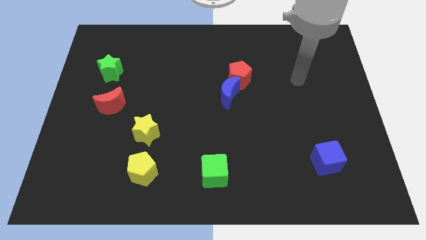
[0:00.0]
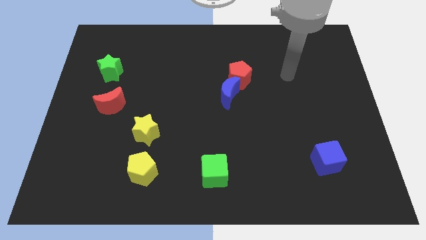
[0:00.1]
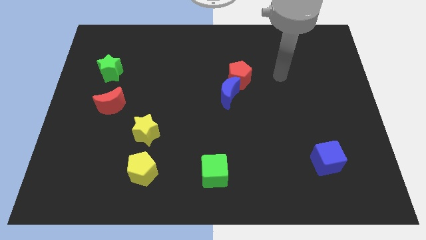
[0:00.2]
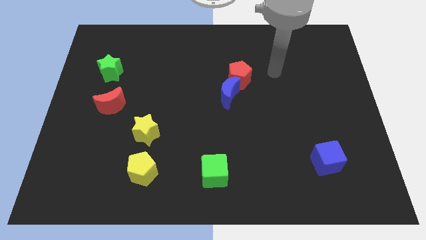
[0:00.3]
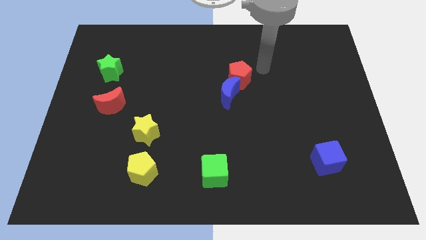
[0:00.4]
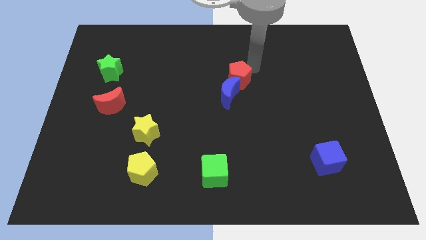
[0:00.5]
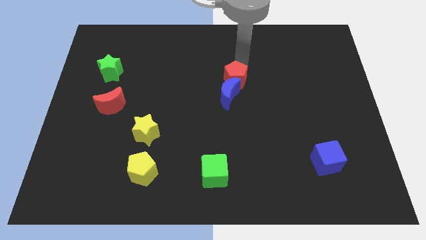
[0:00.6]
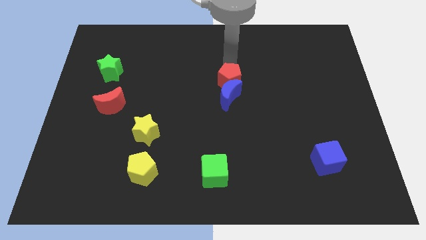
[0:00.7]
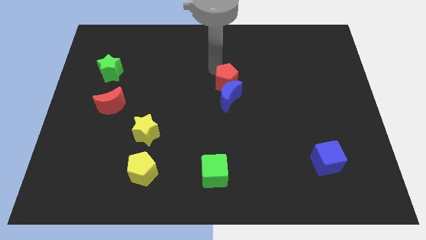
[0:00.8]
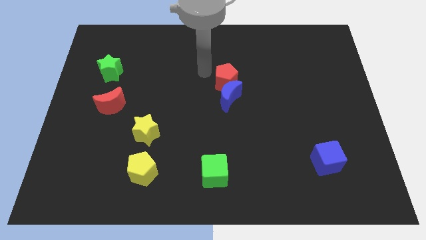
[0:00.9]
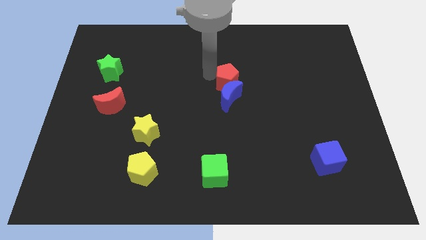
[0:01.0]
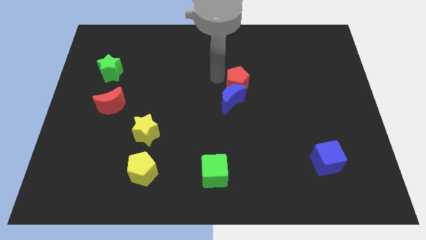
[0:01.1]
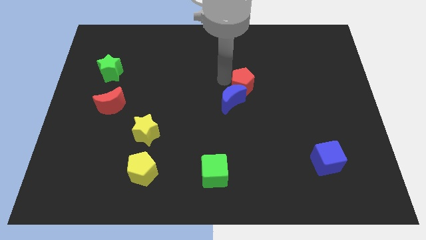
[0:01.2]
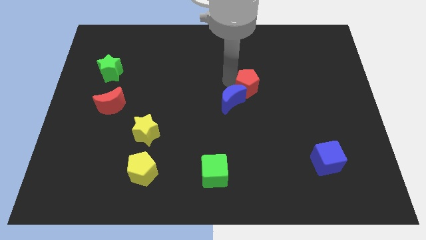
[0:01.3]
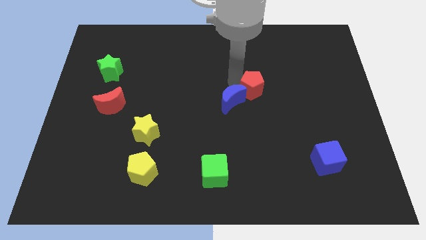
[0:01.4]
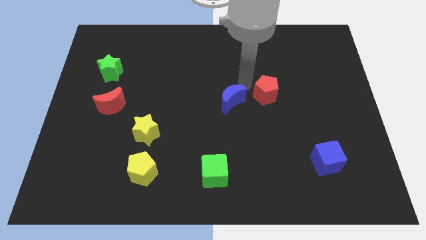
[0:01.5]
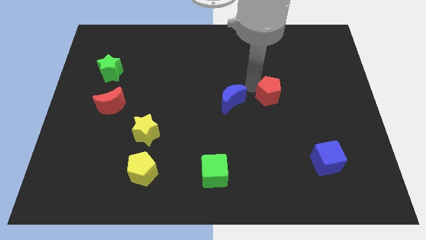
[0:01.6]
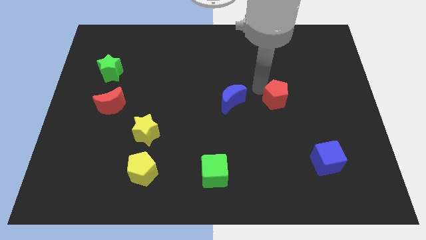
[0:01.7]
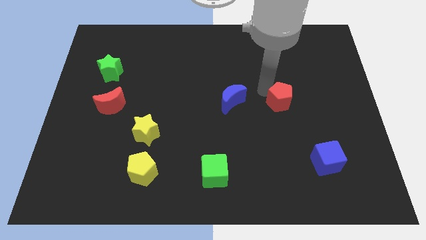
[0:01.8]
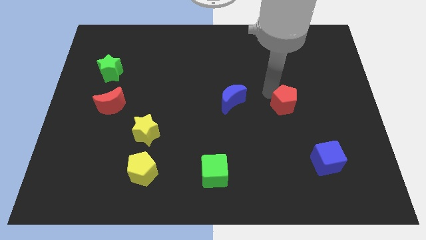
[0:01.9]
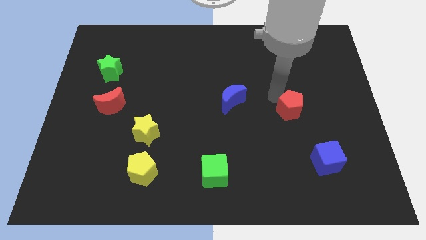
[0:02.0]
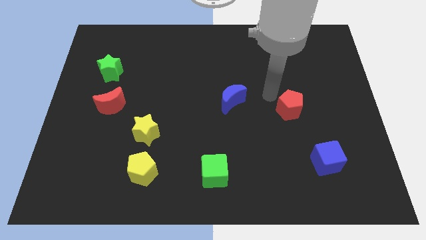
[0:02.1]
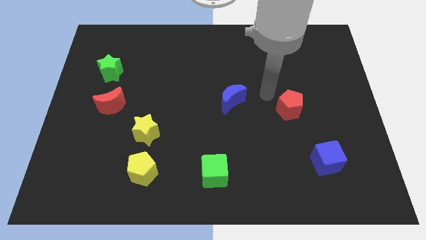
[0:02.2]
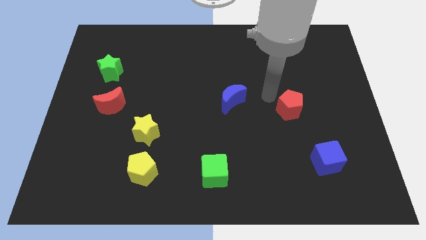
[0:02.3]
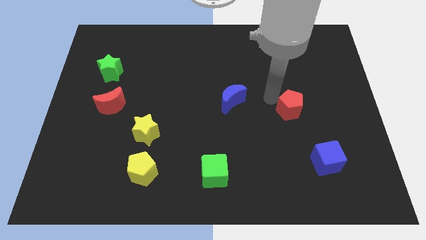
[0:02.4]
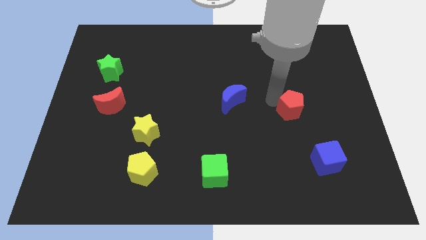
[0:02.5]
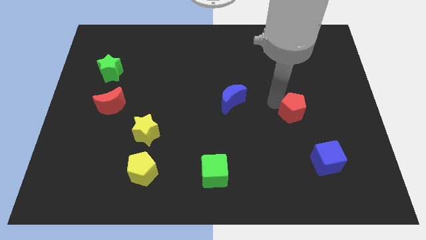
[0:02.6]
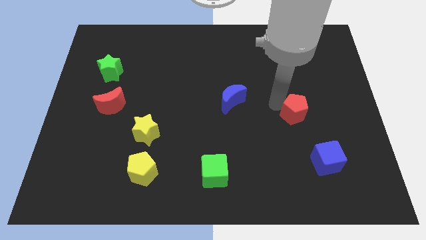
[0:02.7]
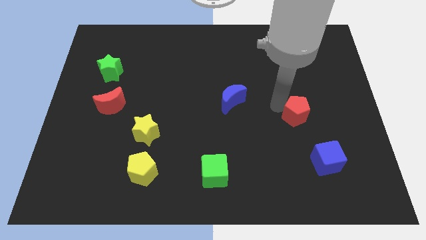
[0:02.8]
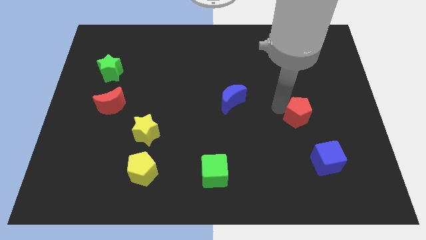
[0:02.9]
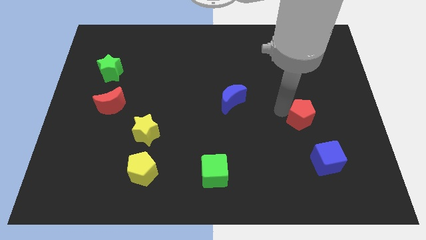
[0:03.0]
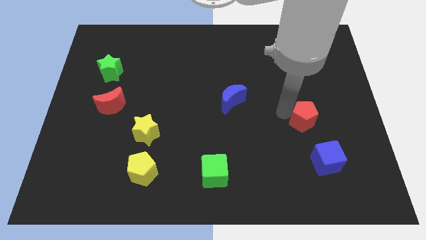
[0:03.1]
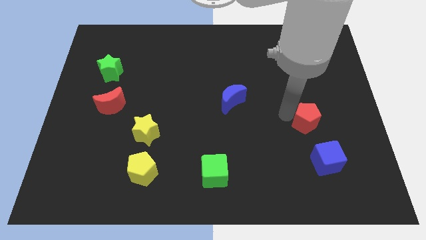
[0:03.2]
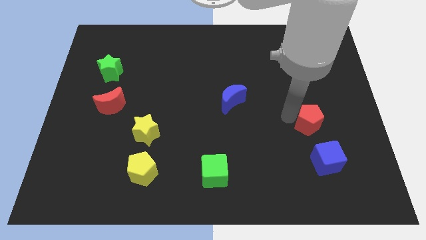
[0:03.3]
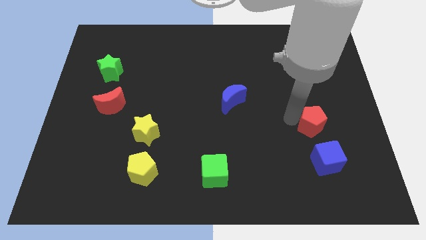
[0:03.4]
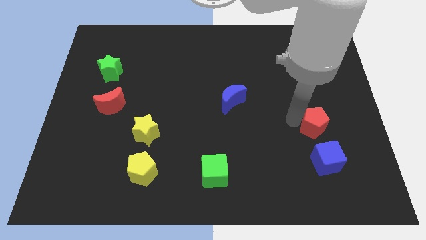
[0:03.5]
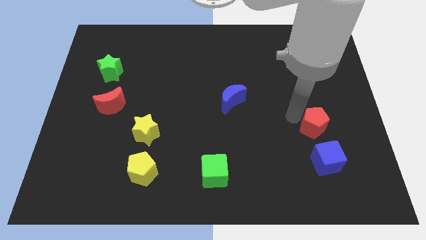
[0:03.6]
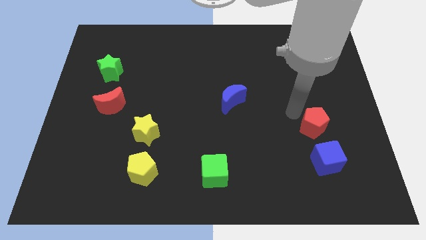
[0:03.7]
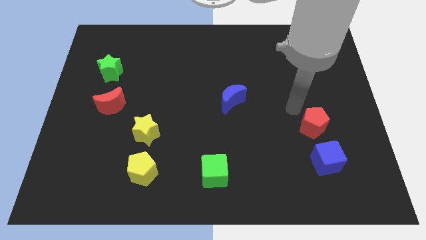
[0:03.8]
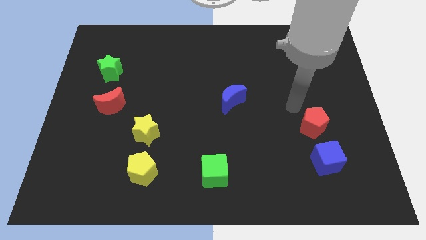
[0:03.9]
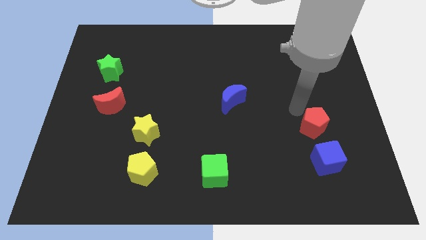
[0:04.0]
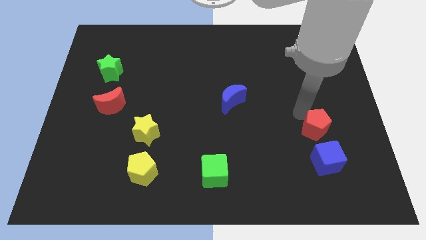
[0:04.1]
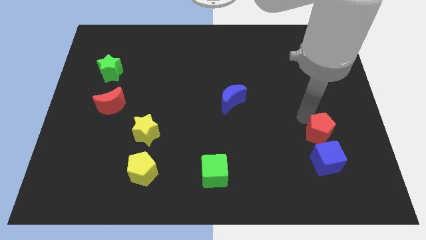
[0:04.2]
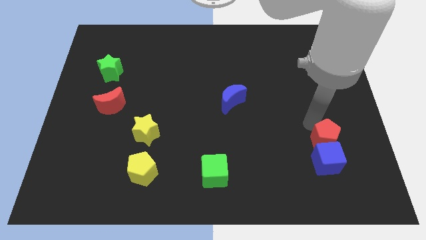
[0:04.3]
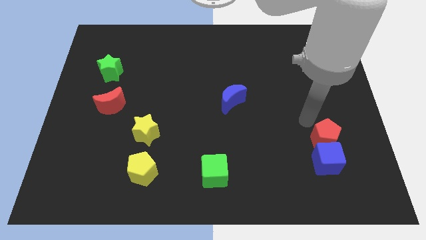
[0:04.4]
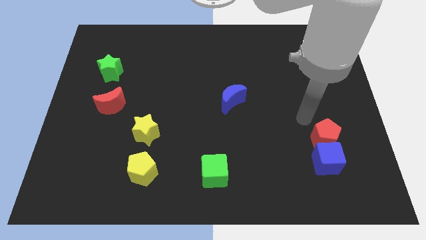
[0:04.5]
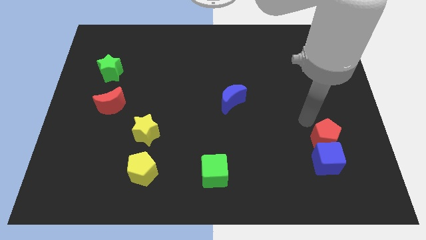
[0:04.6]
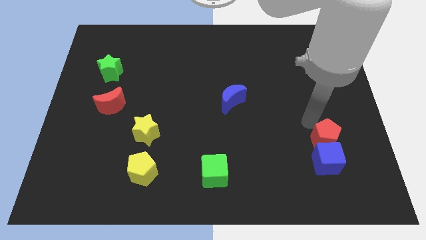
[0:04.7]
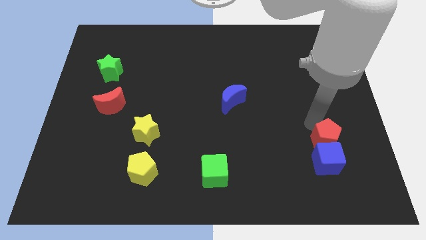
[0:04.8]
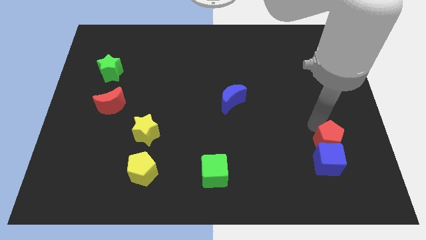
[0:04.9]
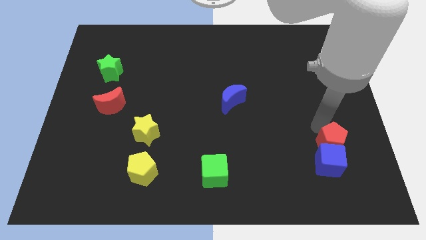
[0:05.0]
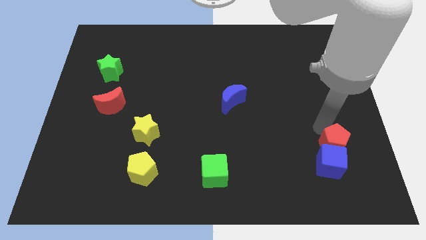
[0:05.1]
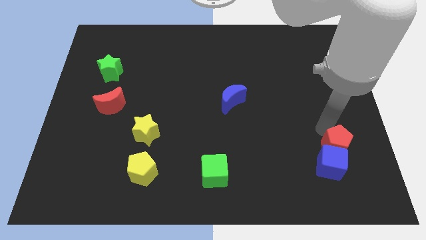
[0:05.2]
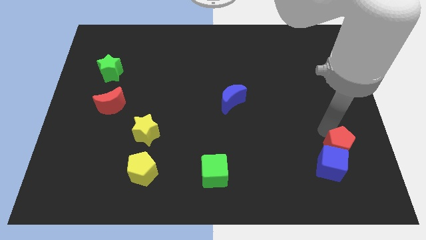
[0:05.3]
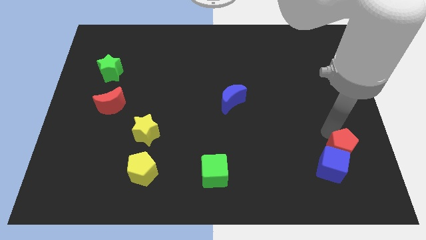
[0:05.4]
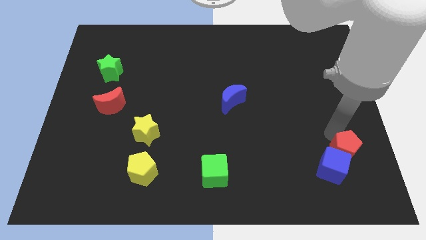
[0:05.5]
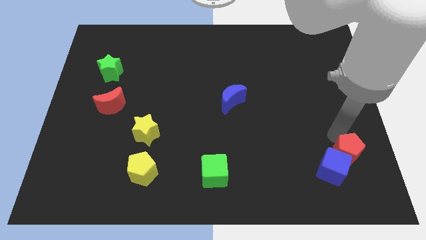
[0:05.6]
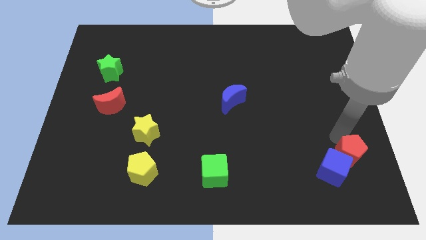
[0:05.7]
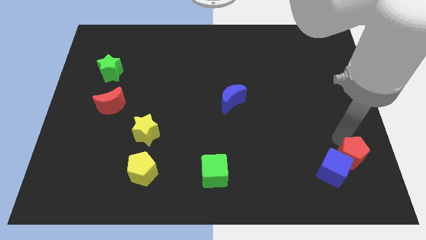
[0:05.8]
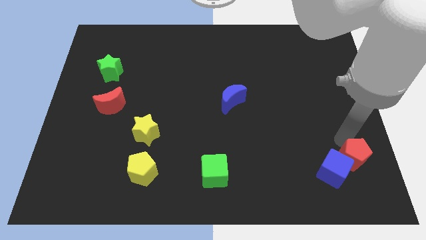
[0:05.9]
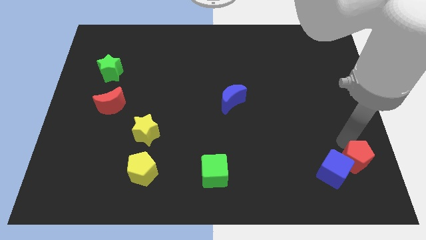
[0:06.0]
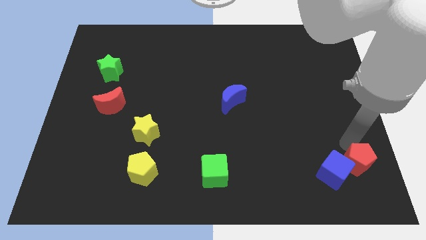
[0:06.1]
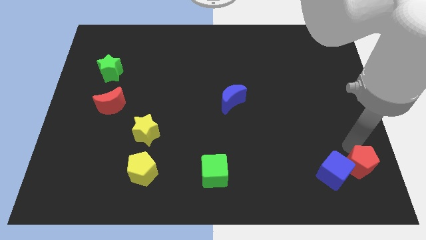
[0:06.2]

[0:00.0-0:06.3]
slide the red pentagon to the lower right corner

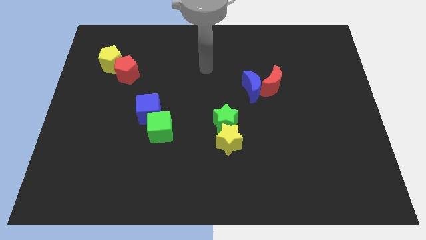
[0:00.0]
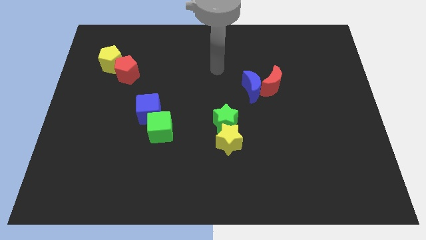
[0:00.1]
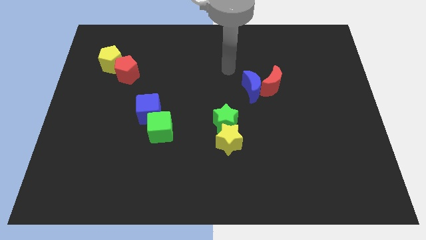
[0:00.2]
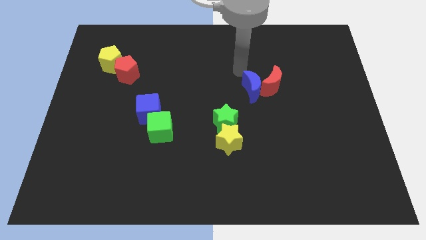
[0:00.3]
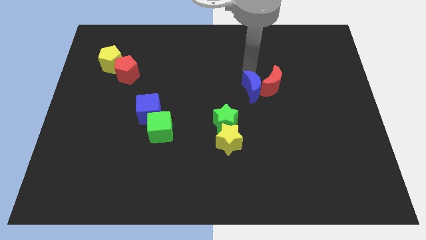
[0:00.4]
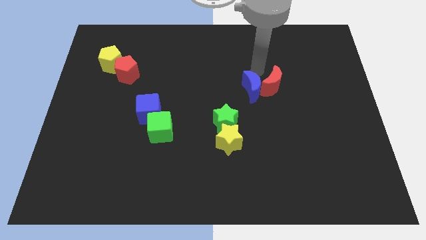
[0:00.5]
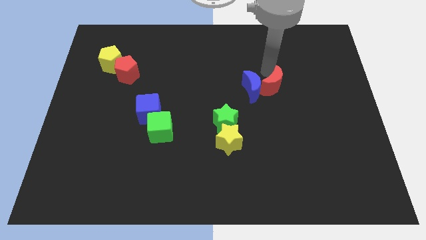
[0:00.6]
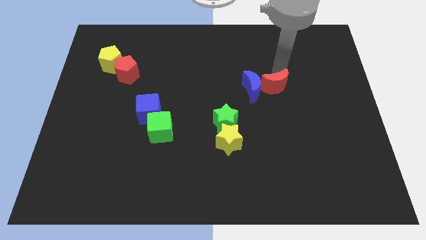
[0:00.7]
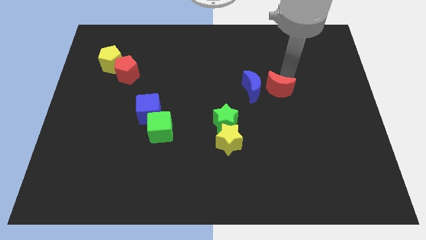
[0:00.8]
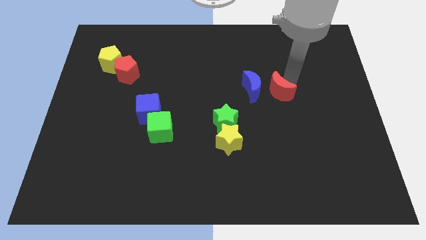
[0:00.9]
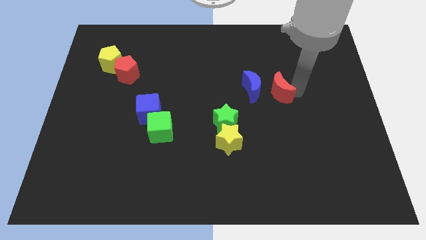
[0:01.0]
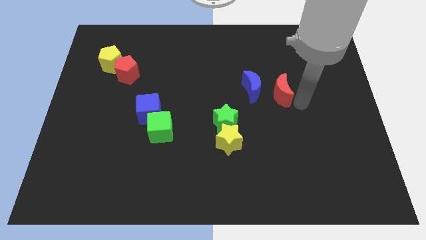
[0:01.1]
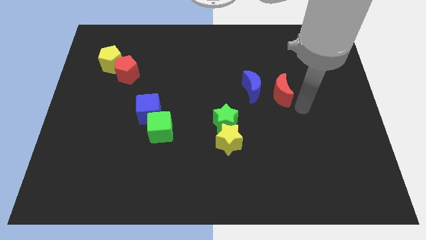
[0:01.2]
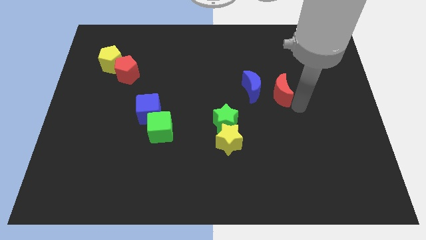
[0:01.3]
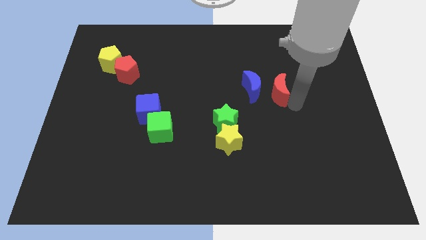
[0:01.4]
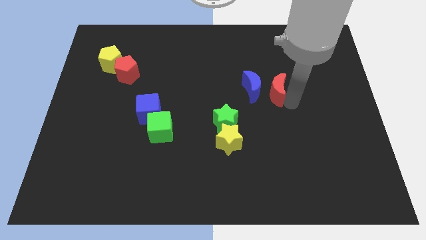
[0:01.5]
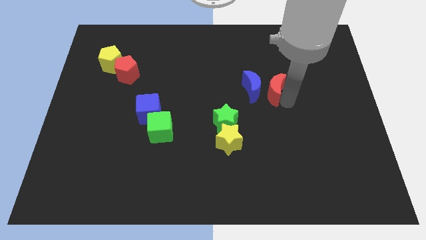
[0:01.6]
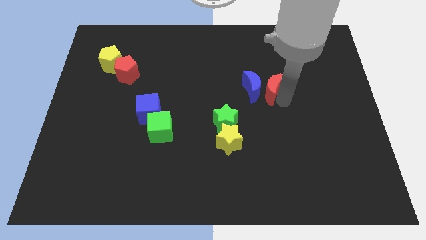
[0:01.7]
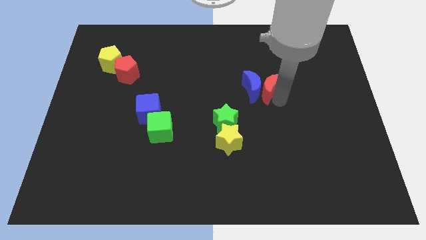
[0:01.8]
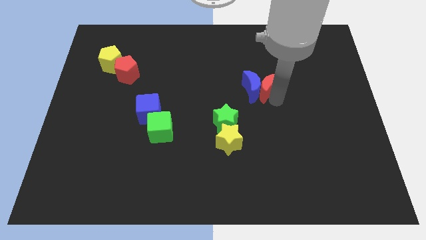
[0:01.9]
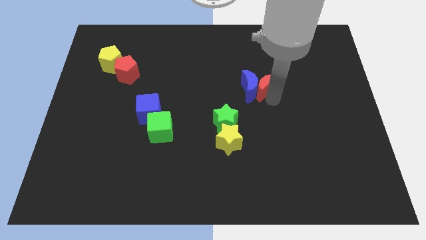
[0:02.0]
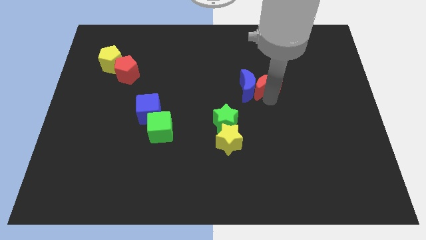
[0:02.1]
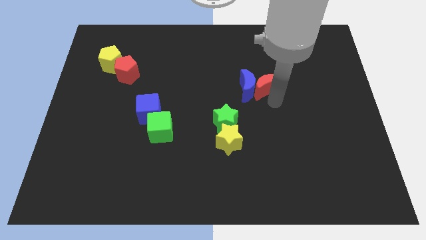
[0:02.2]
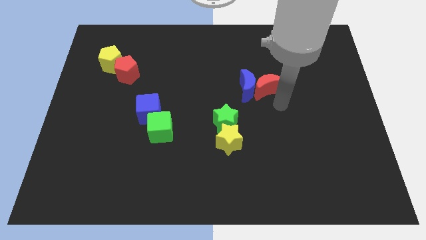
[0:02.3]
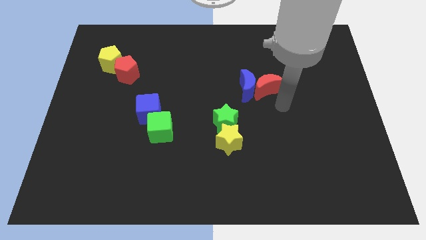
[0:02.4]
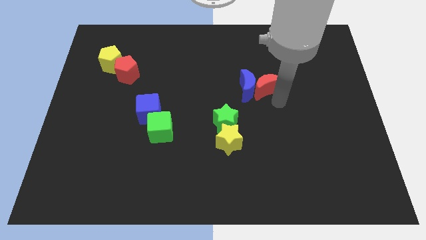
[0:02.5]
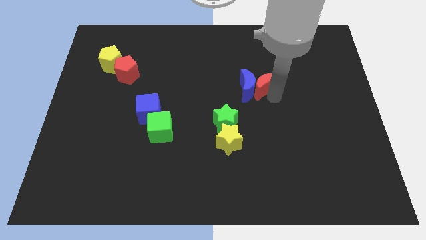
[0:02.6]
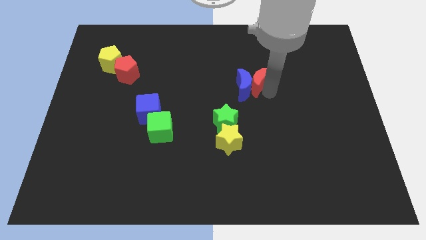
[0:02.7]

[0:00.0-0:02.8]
move the red moon to the middle of the board
